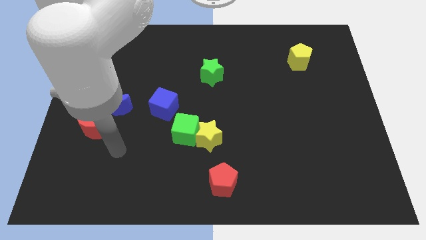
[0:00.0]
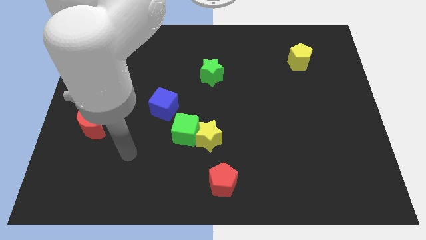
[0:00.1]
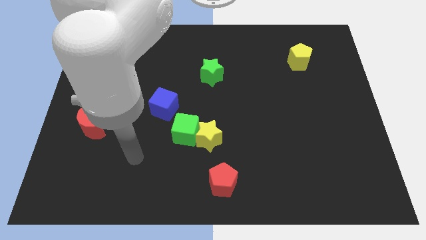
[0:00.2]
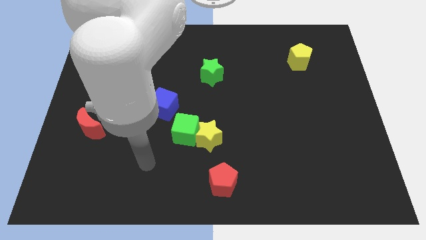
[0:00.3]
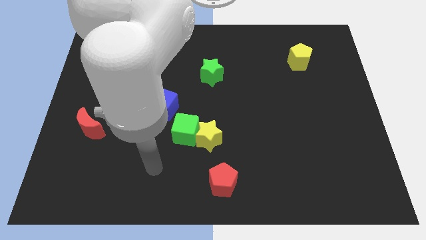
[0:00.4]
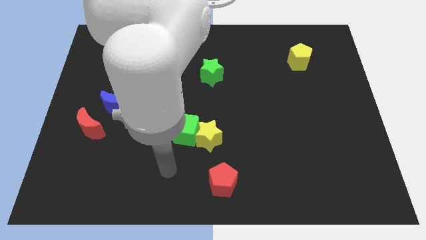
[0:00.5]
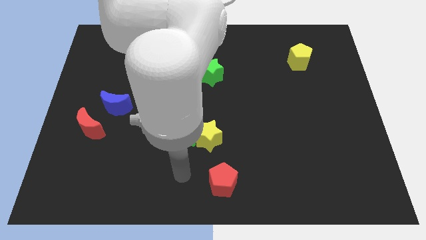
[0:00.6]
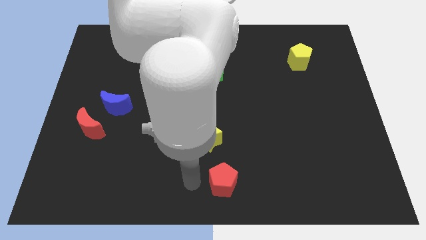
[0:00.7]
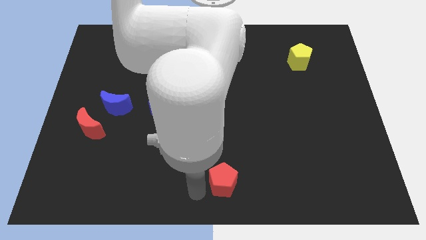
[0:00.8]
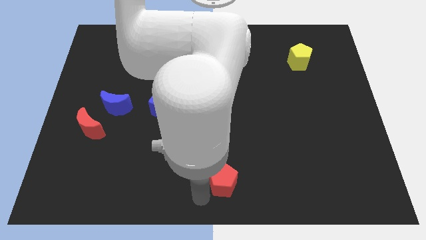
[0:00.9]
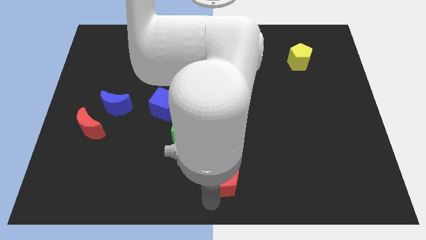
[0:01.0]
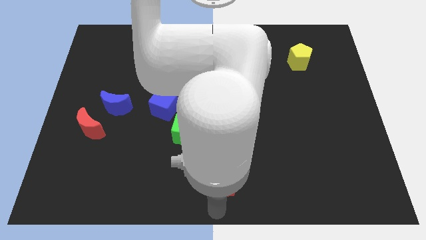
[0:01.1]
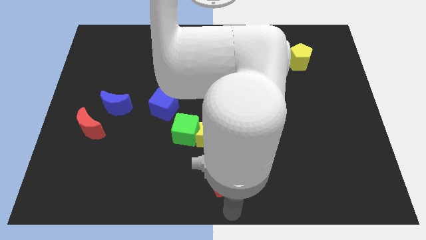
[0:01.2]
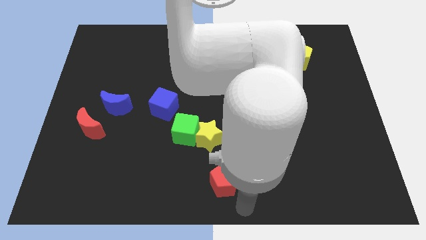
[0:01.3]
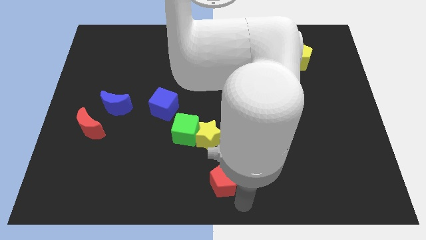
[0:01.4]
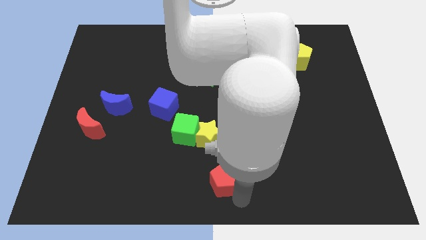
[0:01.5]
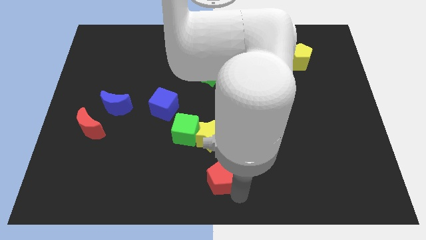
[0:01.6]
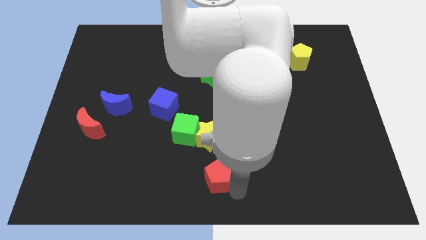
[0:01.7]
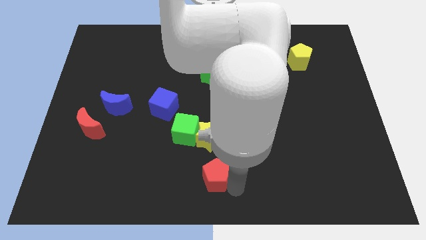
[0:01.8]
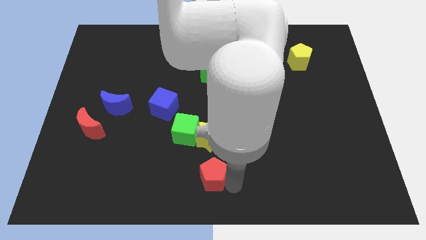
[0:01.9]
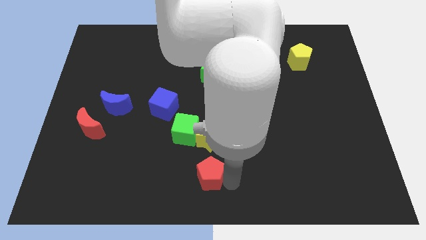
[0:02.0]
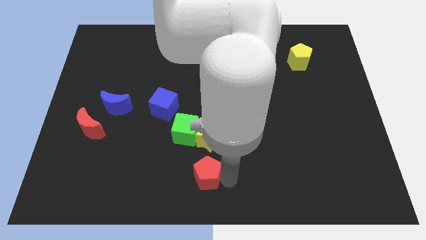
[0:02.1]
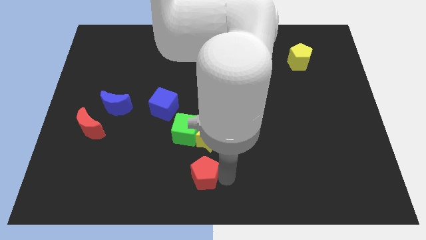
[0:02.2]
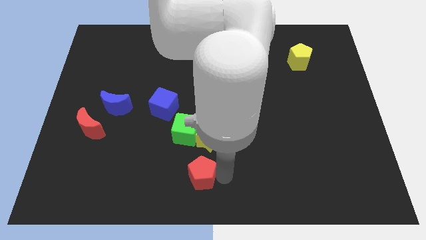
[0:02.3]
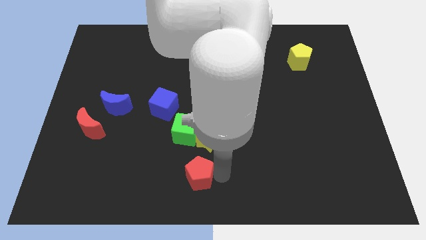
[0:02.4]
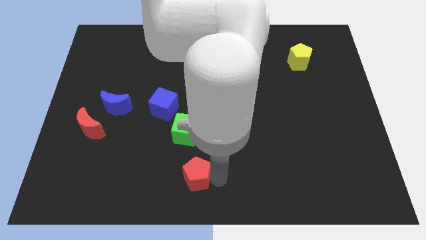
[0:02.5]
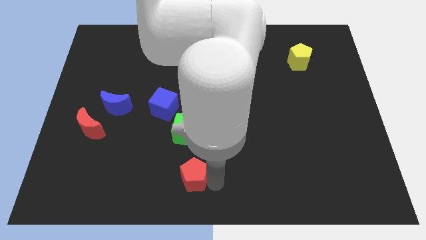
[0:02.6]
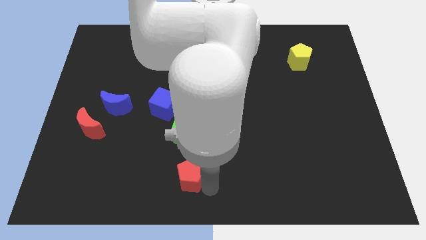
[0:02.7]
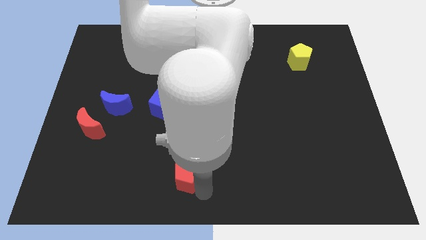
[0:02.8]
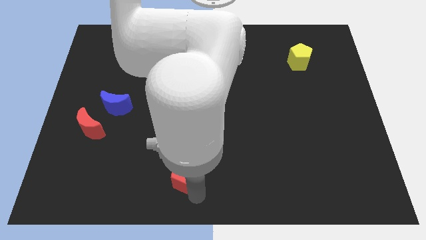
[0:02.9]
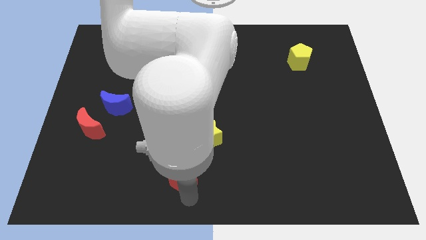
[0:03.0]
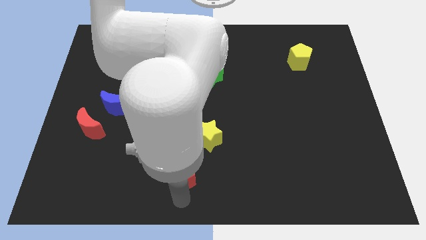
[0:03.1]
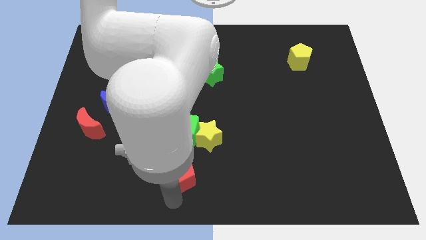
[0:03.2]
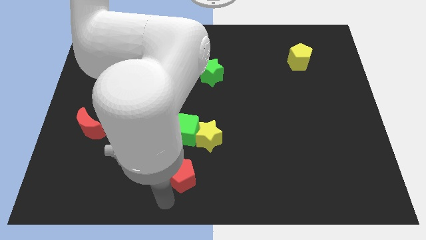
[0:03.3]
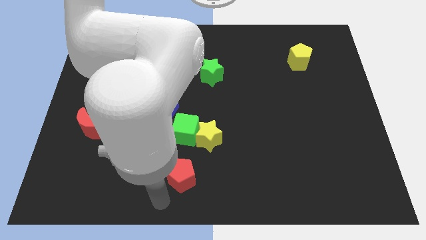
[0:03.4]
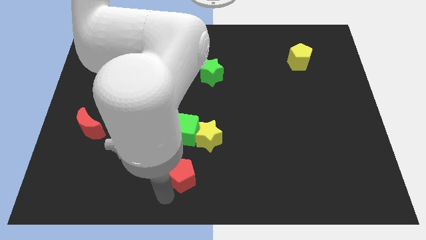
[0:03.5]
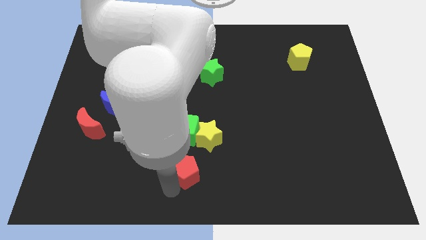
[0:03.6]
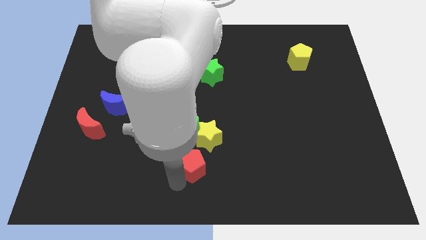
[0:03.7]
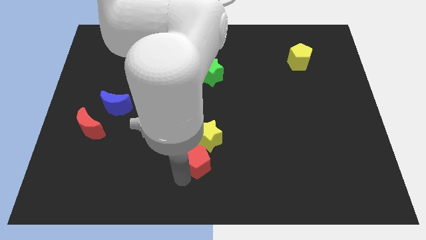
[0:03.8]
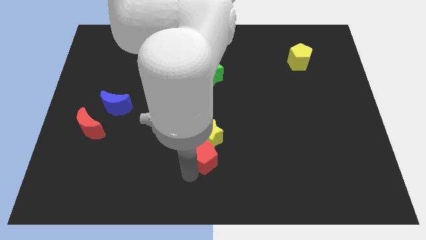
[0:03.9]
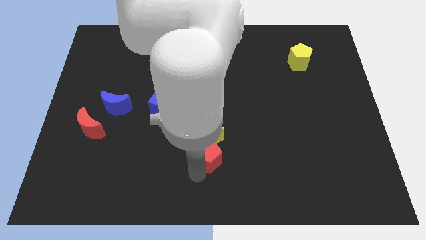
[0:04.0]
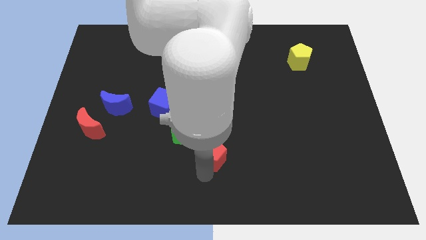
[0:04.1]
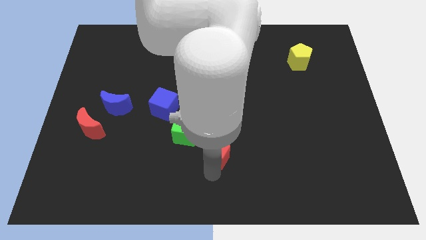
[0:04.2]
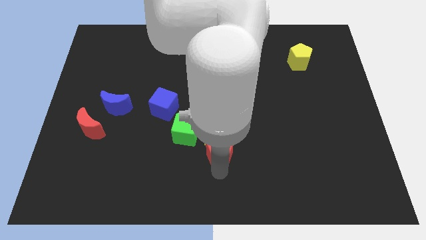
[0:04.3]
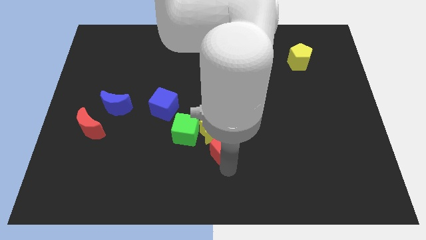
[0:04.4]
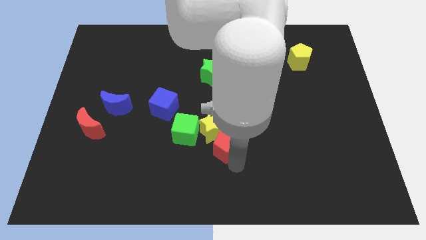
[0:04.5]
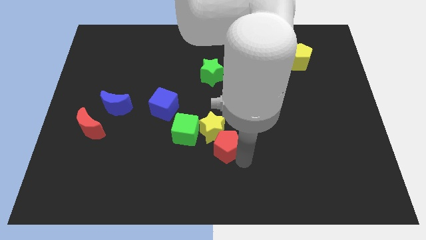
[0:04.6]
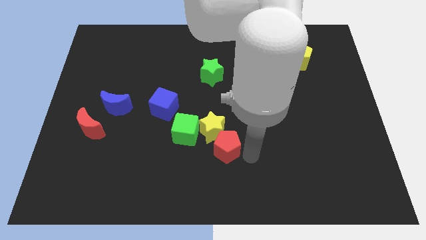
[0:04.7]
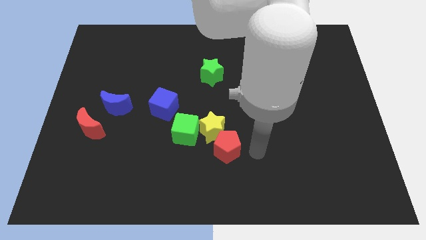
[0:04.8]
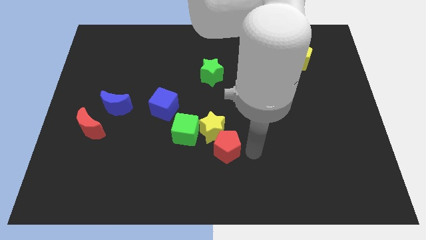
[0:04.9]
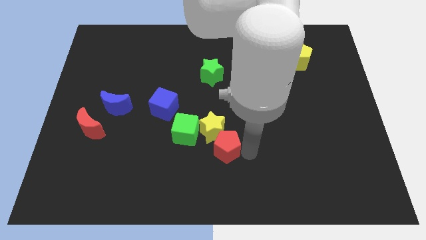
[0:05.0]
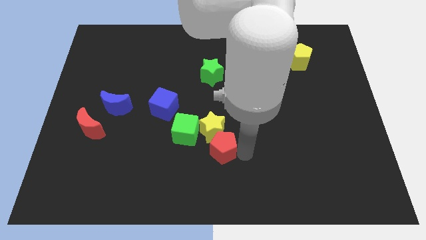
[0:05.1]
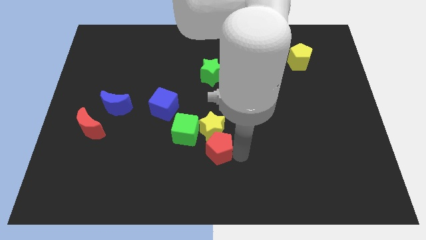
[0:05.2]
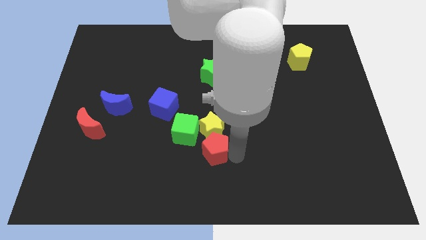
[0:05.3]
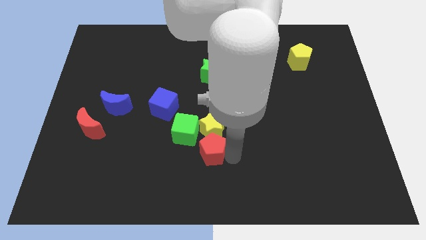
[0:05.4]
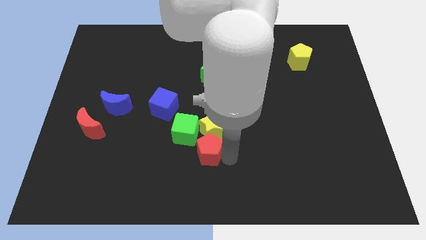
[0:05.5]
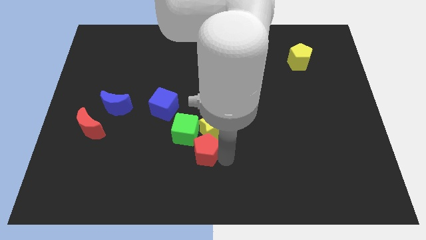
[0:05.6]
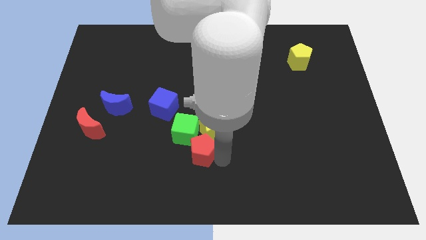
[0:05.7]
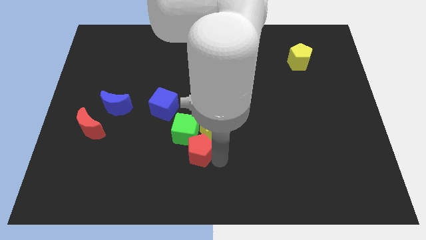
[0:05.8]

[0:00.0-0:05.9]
put the red pentagon next to the green cube

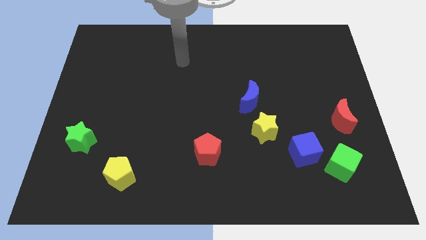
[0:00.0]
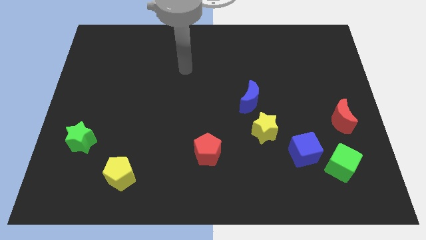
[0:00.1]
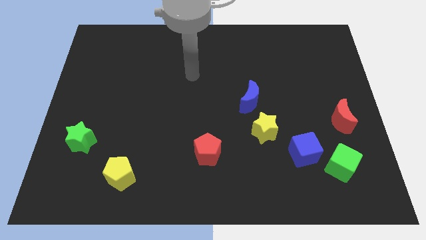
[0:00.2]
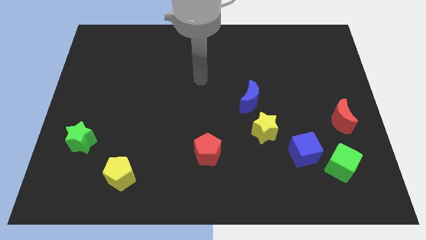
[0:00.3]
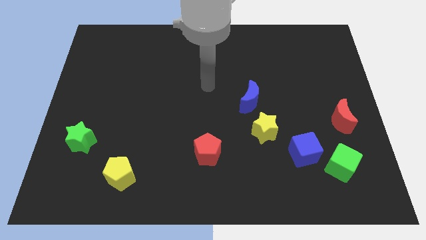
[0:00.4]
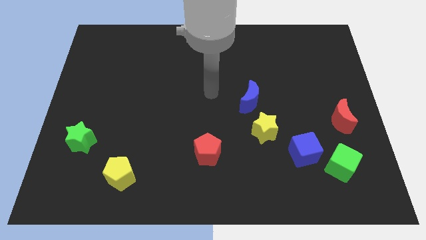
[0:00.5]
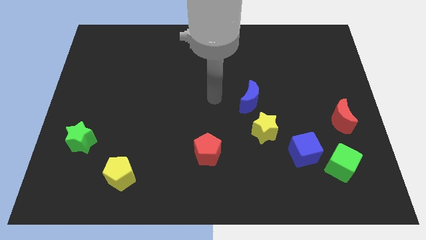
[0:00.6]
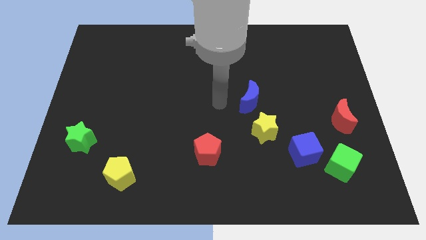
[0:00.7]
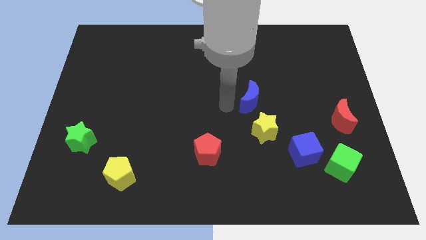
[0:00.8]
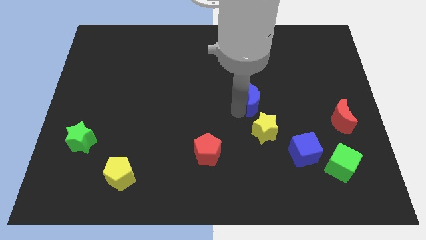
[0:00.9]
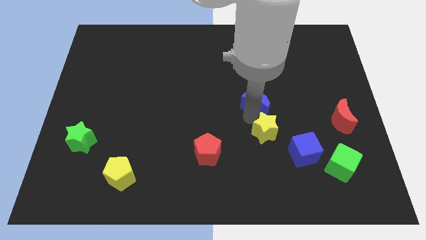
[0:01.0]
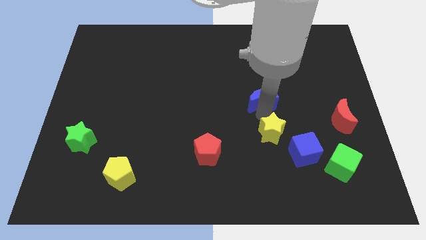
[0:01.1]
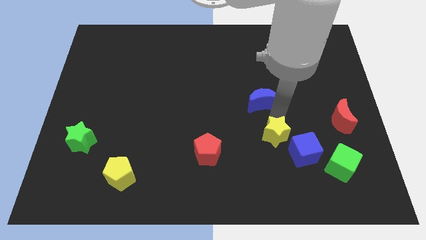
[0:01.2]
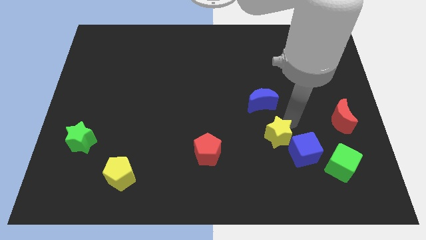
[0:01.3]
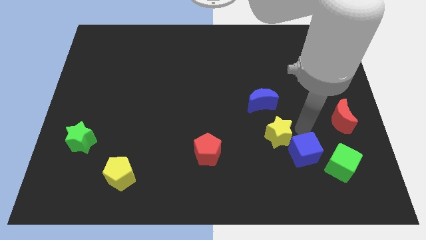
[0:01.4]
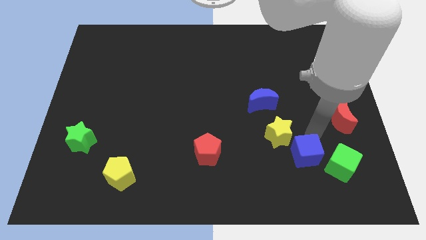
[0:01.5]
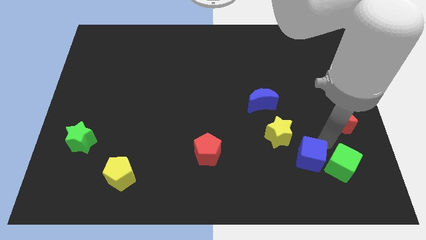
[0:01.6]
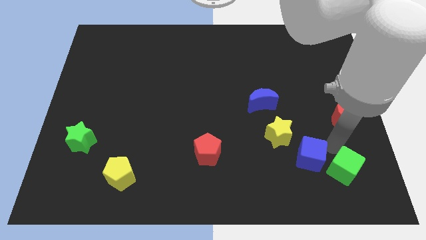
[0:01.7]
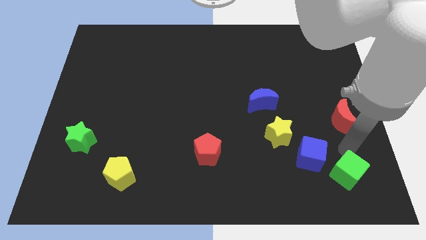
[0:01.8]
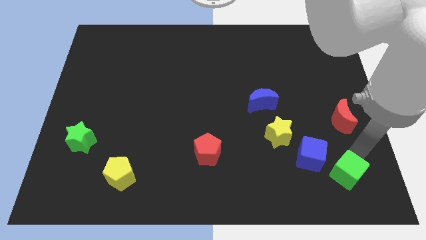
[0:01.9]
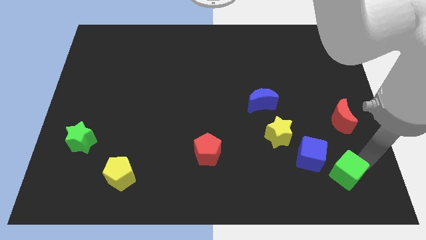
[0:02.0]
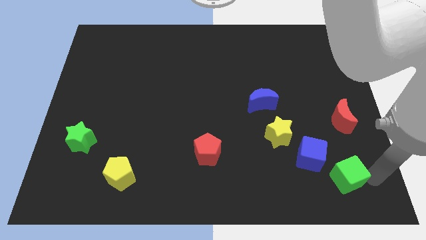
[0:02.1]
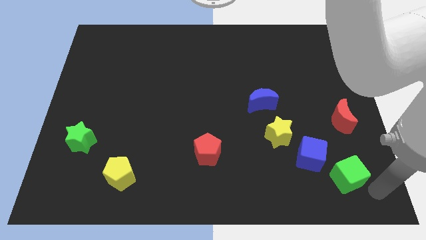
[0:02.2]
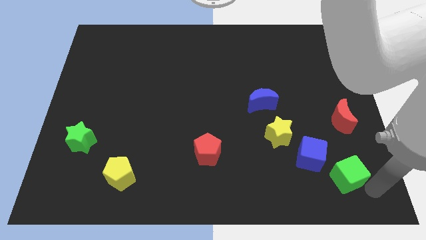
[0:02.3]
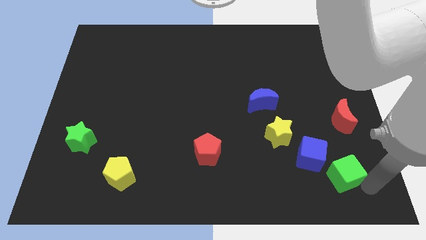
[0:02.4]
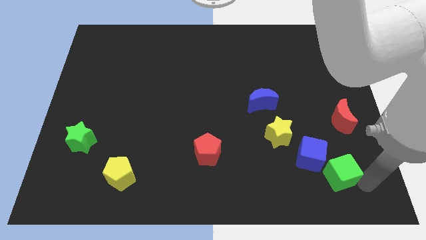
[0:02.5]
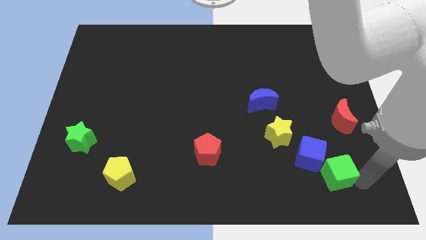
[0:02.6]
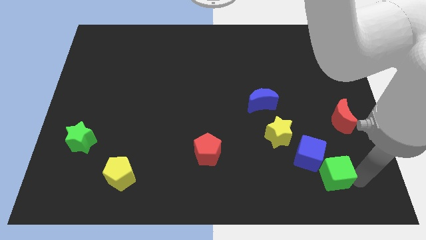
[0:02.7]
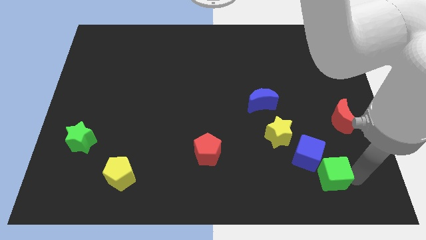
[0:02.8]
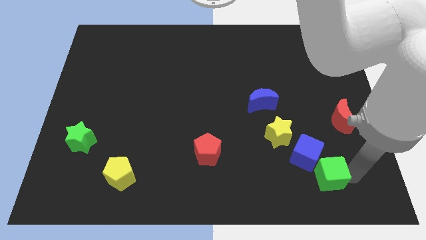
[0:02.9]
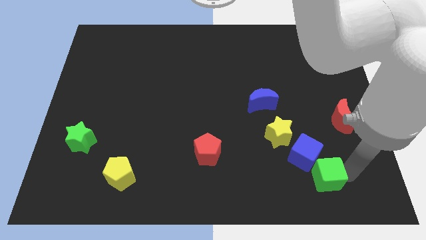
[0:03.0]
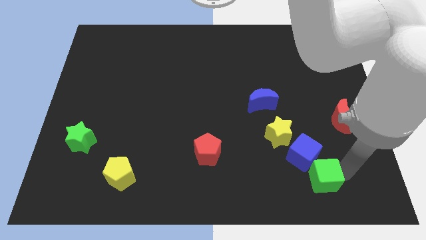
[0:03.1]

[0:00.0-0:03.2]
slide the green cube next to the blue cube
